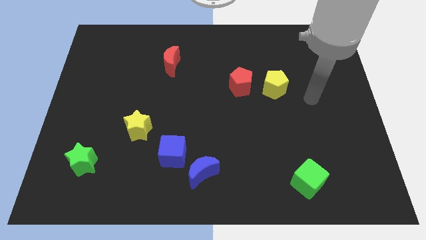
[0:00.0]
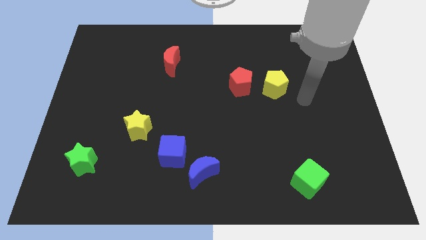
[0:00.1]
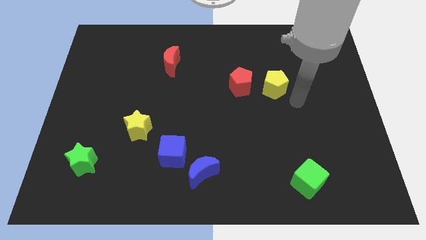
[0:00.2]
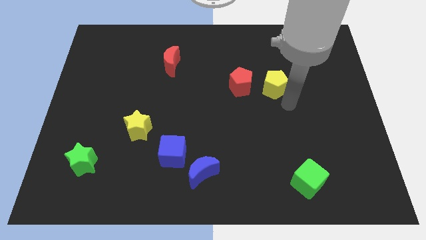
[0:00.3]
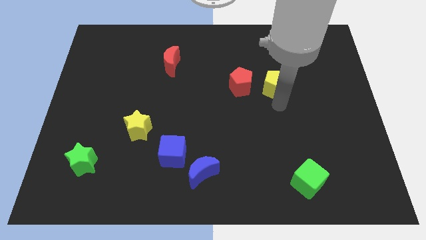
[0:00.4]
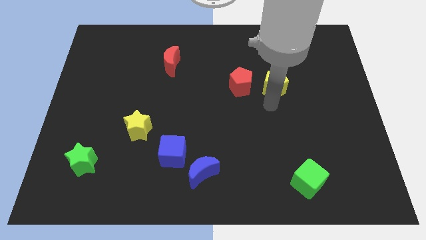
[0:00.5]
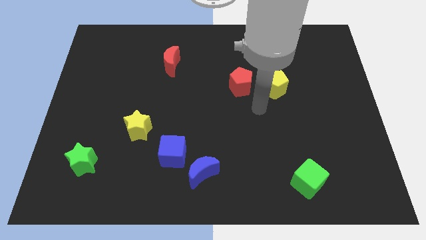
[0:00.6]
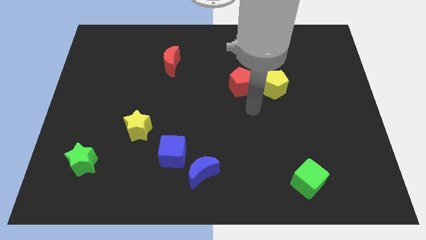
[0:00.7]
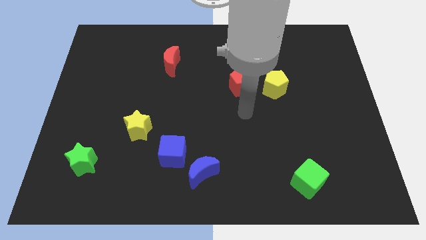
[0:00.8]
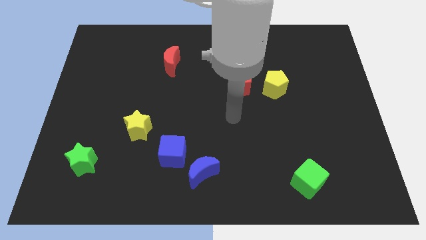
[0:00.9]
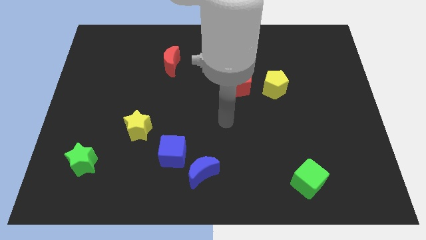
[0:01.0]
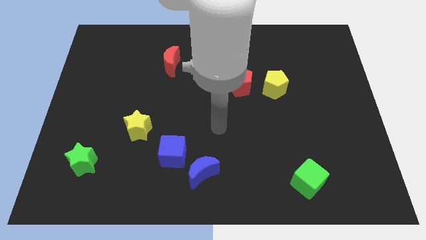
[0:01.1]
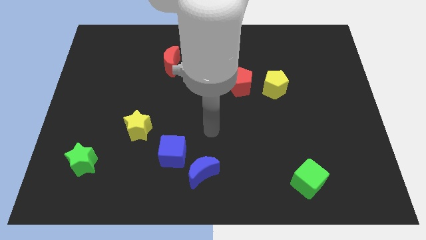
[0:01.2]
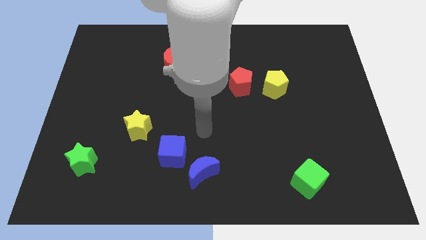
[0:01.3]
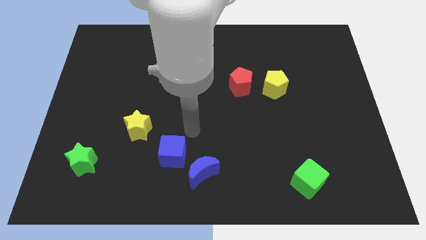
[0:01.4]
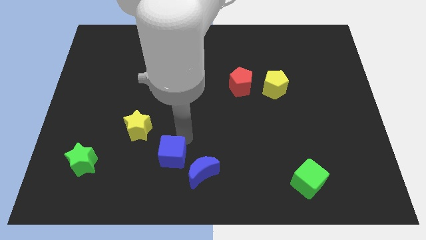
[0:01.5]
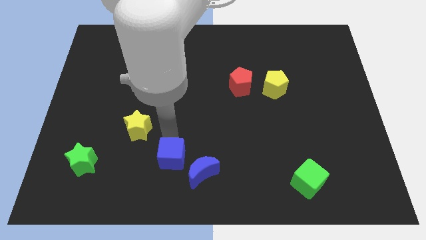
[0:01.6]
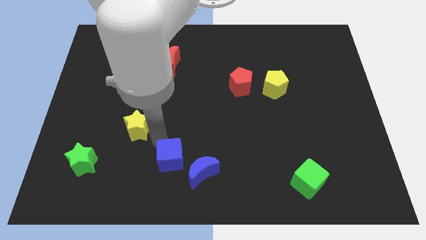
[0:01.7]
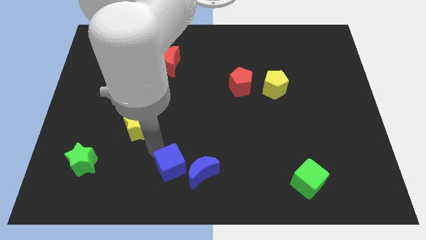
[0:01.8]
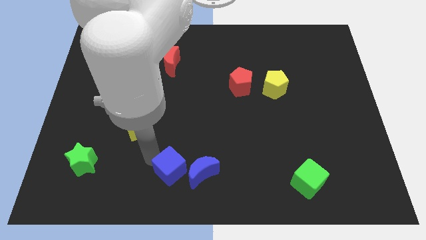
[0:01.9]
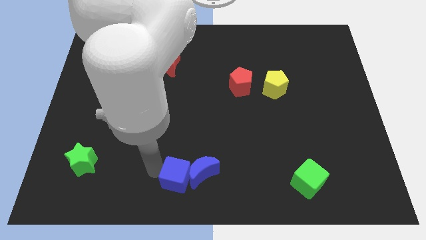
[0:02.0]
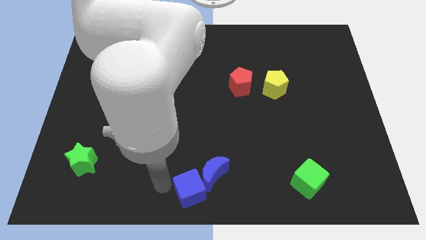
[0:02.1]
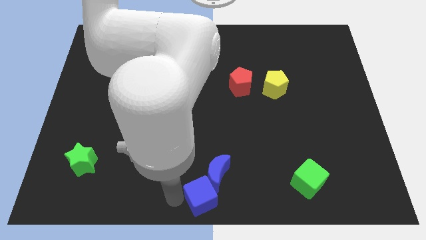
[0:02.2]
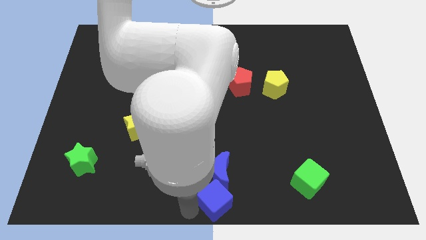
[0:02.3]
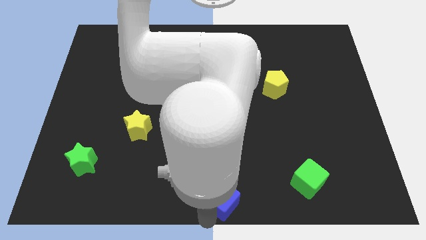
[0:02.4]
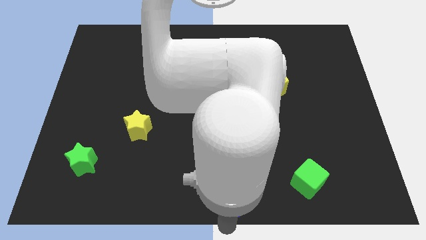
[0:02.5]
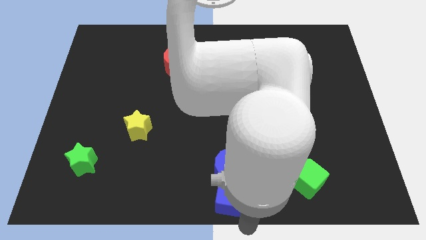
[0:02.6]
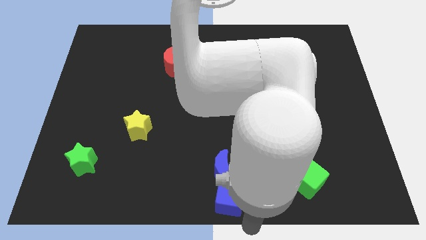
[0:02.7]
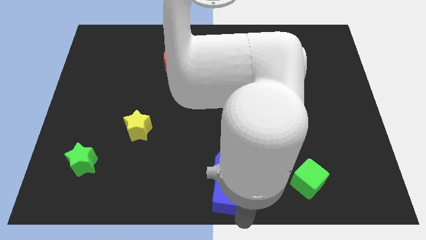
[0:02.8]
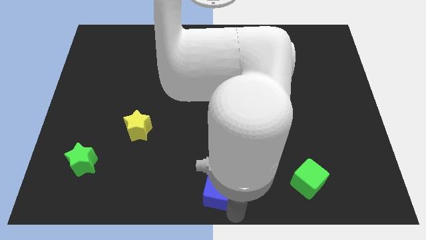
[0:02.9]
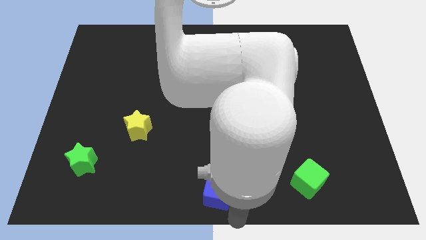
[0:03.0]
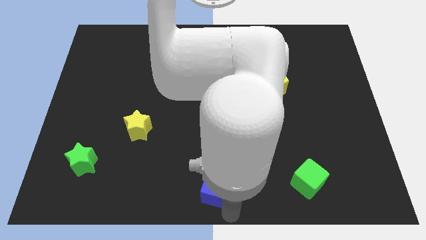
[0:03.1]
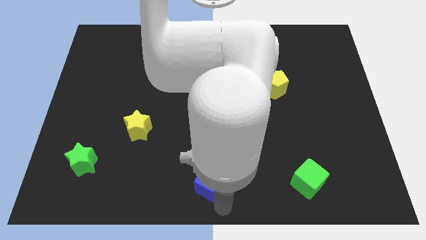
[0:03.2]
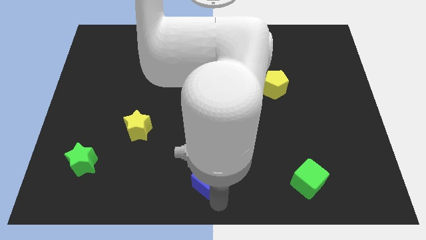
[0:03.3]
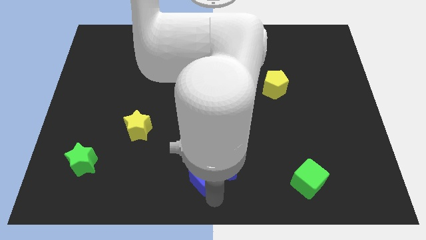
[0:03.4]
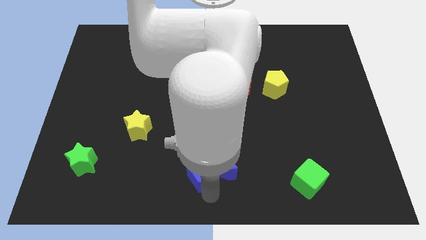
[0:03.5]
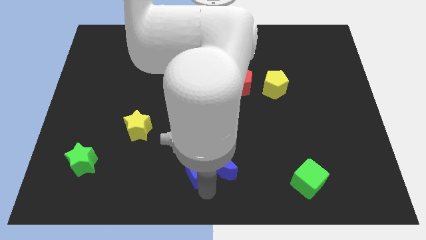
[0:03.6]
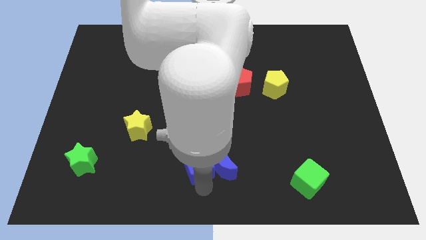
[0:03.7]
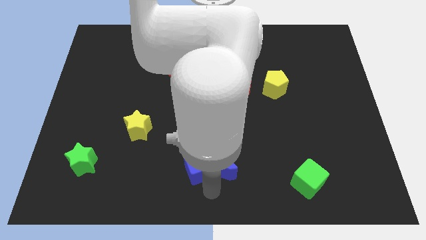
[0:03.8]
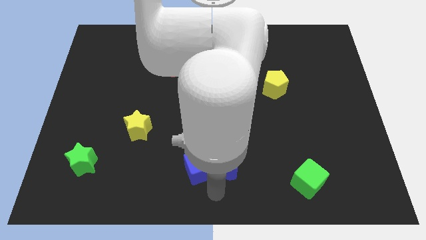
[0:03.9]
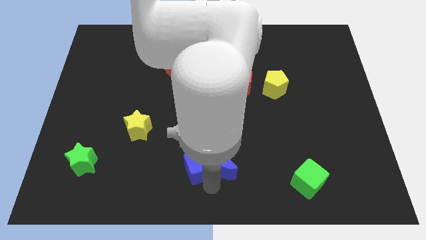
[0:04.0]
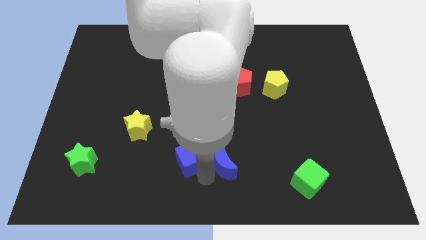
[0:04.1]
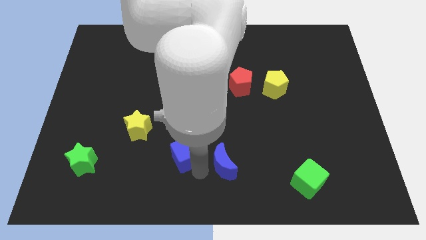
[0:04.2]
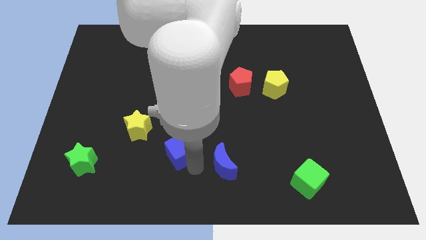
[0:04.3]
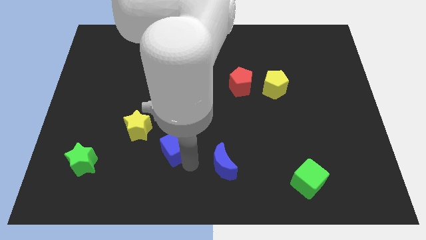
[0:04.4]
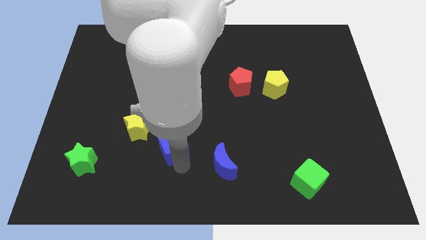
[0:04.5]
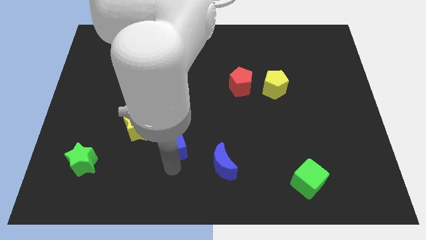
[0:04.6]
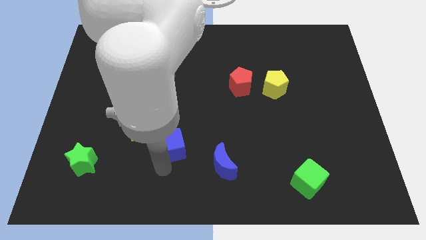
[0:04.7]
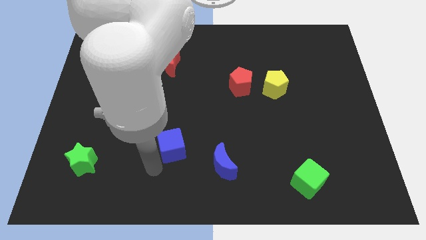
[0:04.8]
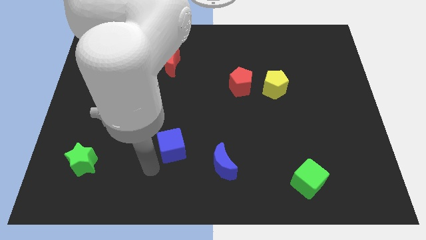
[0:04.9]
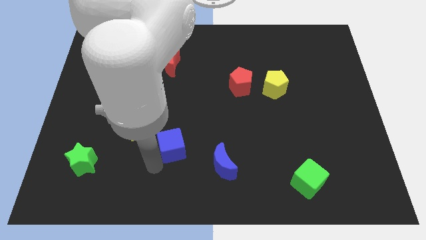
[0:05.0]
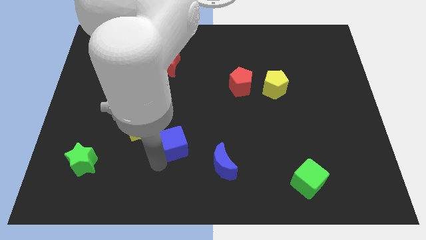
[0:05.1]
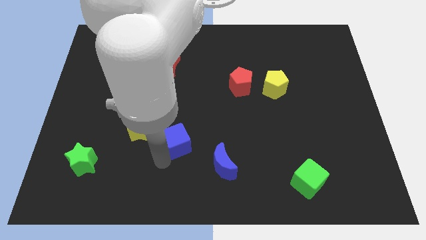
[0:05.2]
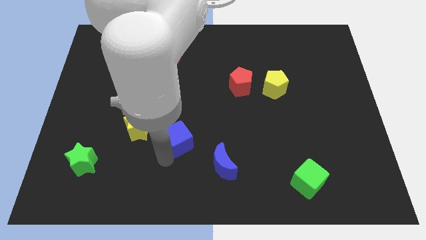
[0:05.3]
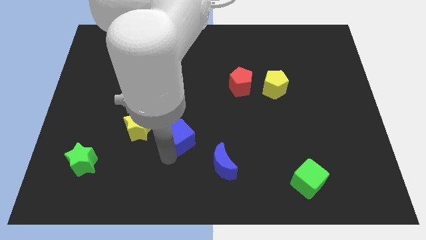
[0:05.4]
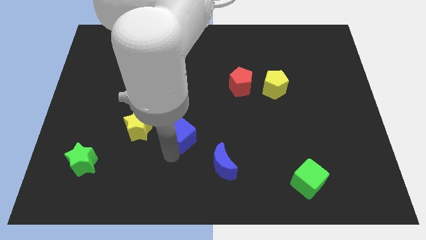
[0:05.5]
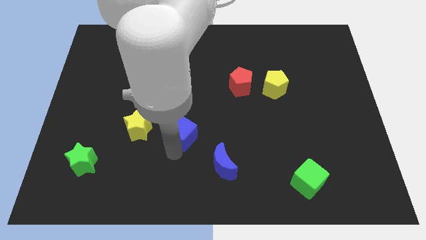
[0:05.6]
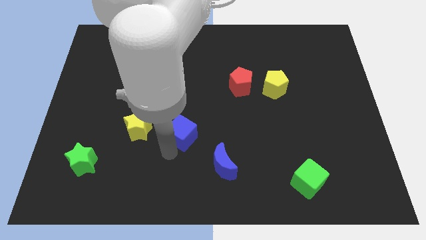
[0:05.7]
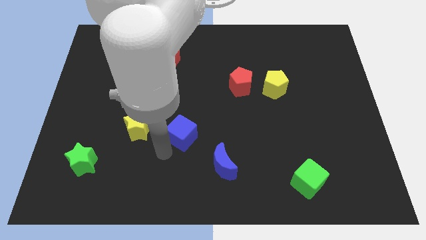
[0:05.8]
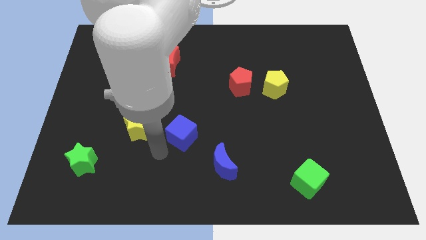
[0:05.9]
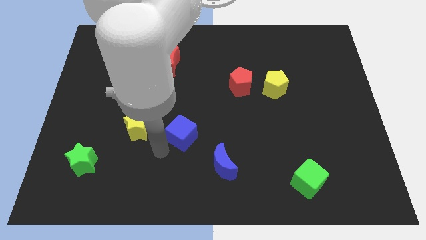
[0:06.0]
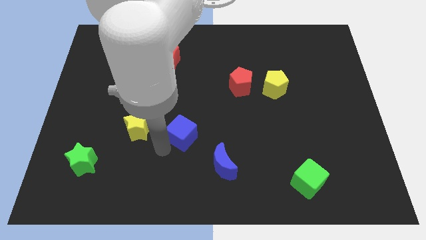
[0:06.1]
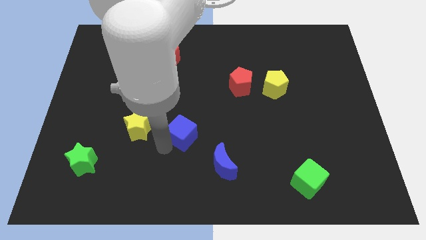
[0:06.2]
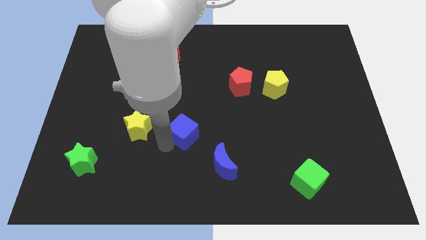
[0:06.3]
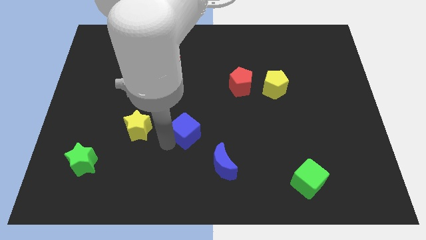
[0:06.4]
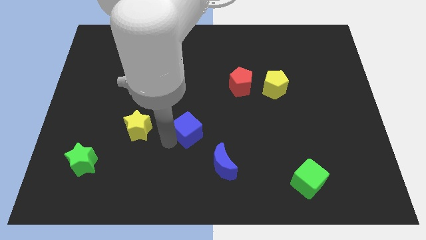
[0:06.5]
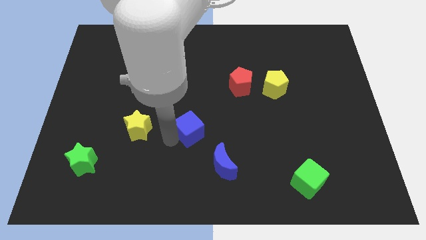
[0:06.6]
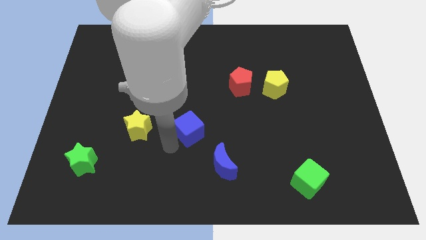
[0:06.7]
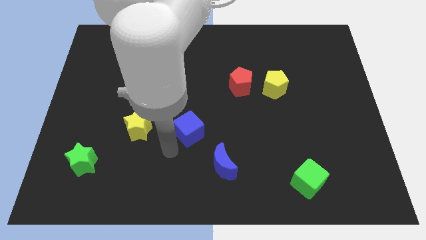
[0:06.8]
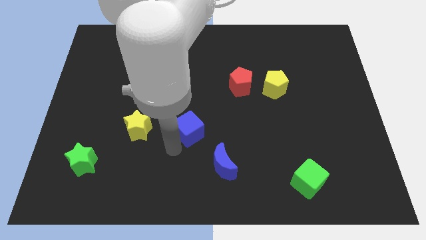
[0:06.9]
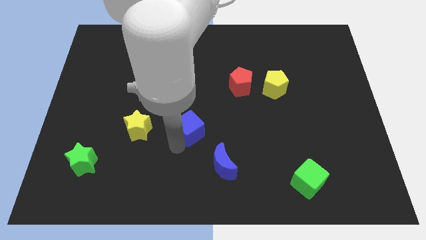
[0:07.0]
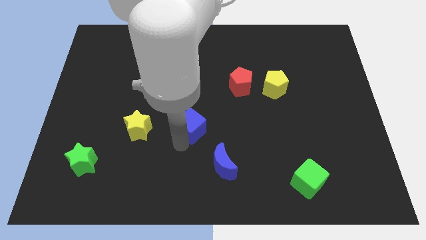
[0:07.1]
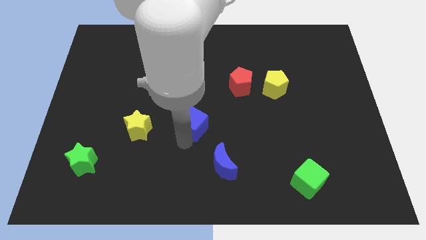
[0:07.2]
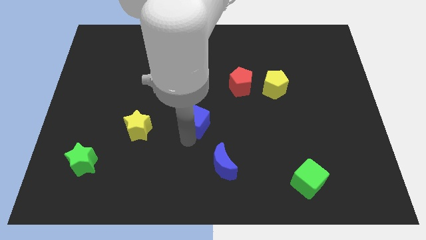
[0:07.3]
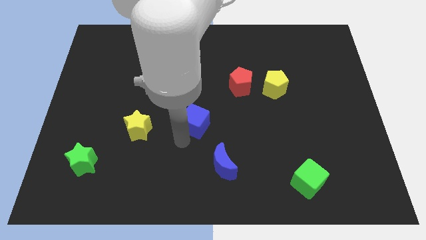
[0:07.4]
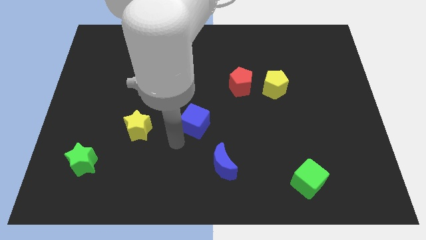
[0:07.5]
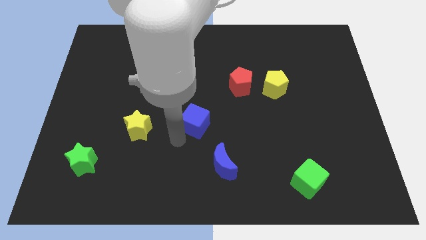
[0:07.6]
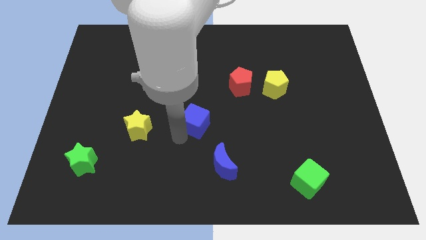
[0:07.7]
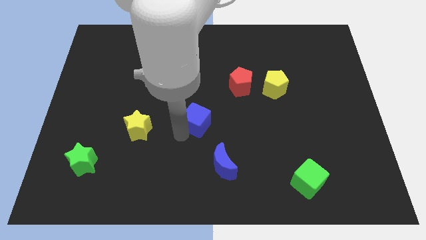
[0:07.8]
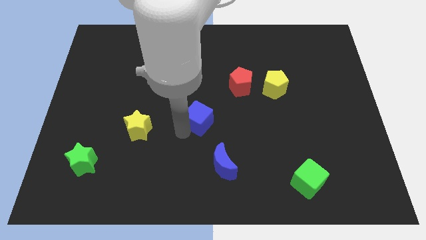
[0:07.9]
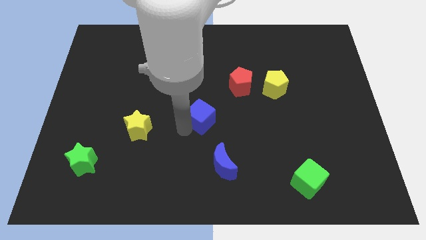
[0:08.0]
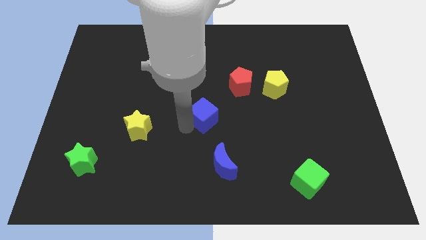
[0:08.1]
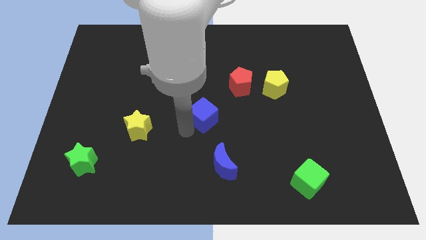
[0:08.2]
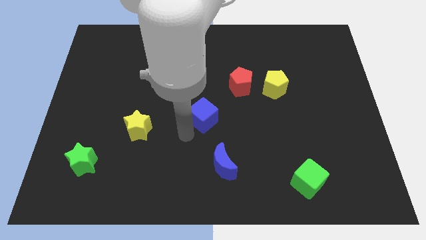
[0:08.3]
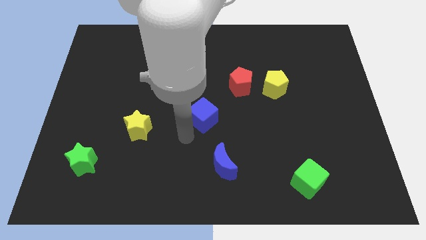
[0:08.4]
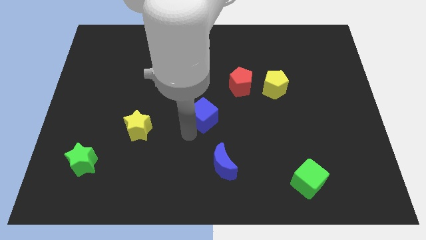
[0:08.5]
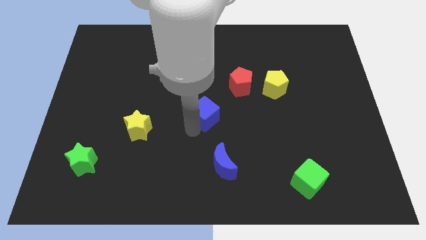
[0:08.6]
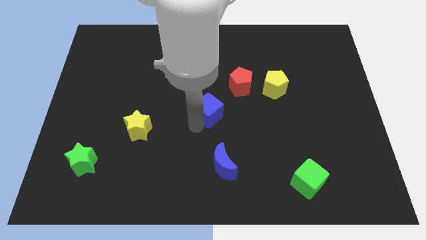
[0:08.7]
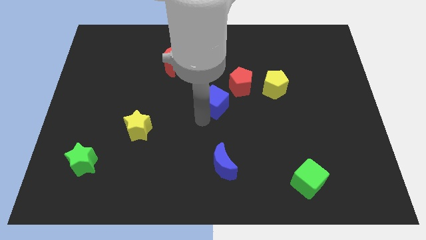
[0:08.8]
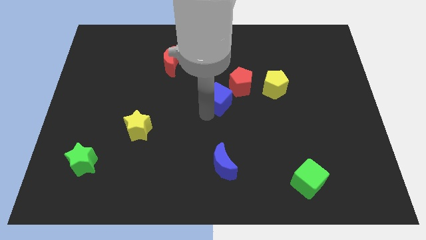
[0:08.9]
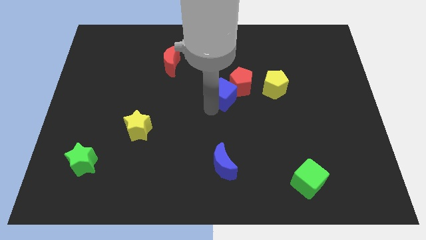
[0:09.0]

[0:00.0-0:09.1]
move the blue cube to the left side of the yellow pentagon
